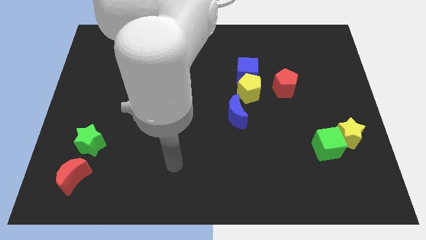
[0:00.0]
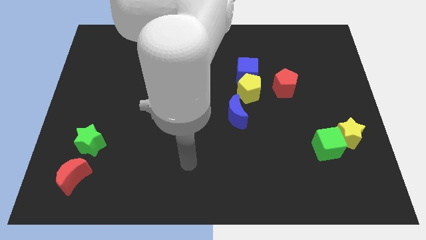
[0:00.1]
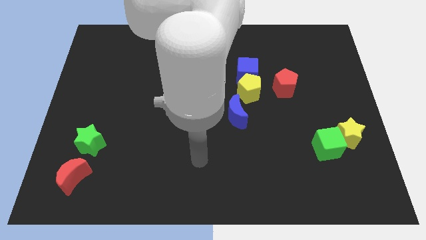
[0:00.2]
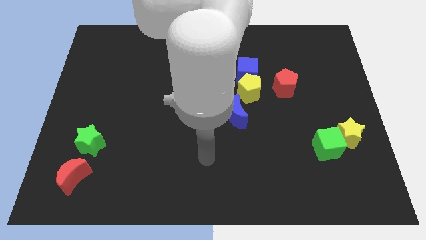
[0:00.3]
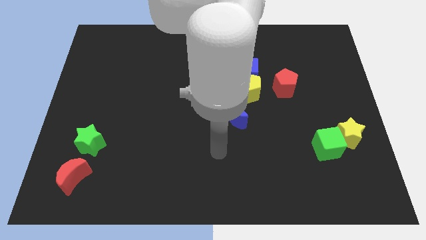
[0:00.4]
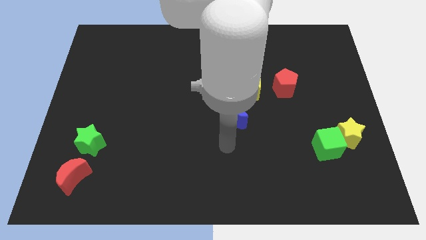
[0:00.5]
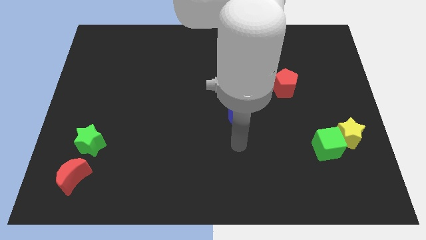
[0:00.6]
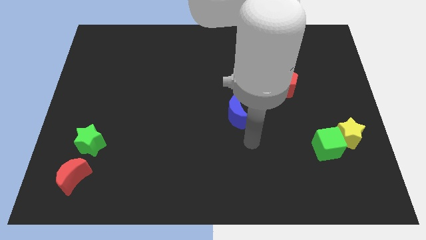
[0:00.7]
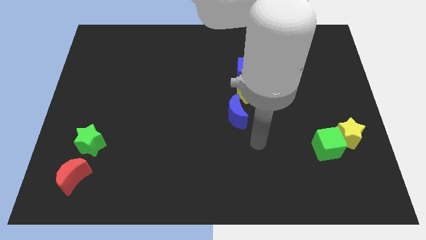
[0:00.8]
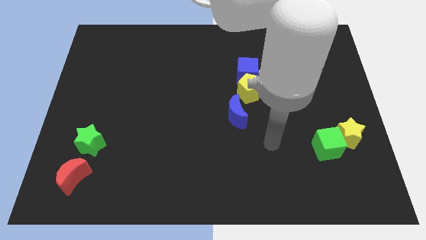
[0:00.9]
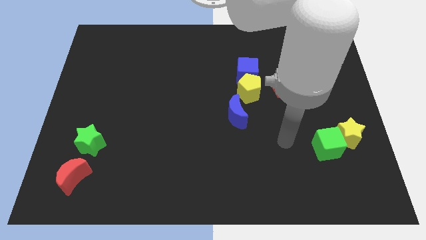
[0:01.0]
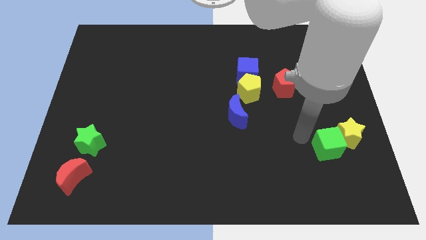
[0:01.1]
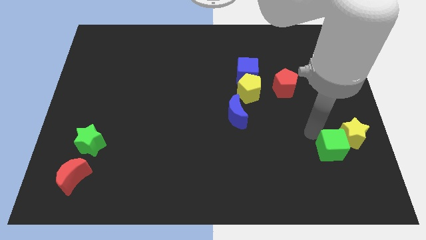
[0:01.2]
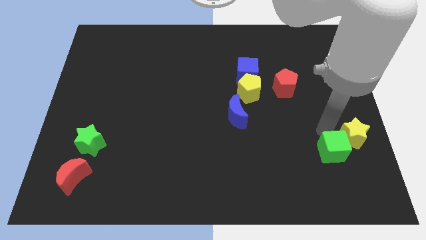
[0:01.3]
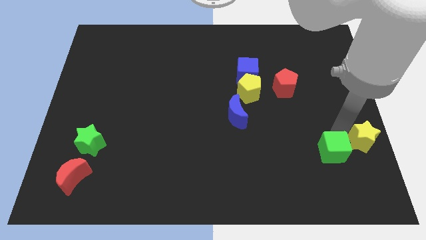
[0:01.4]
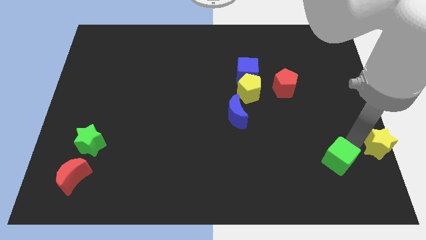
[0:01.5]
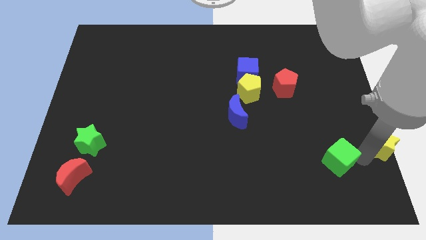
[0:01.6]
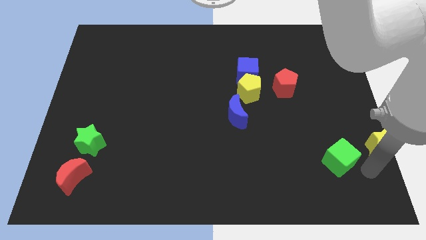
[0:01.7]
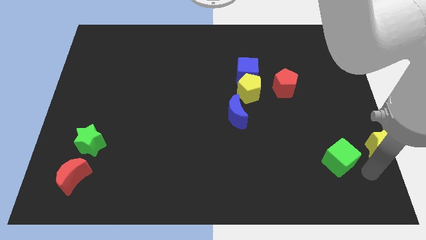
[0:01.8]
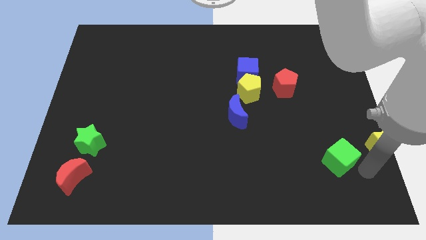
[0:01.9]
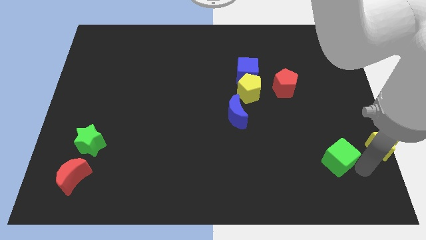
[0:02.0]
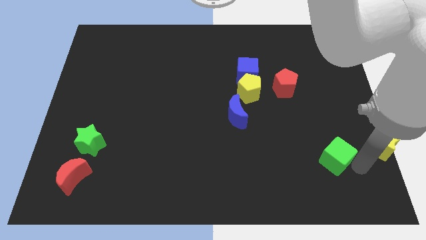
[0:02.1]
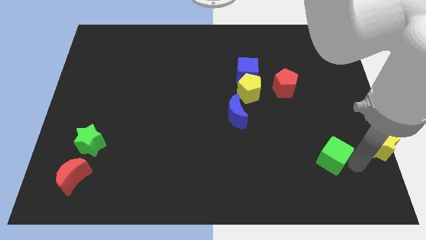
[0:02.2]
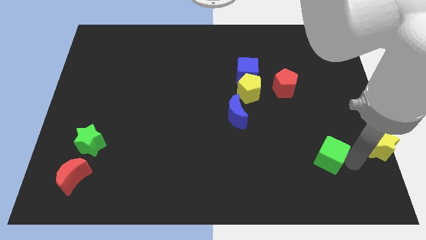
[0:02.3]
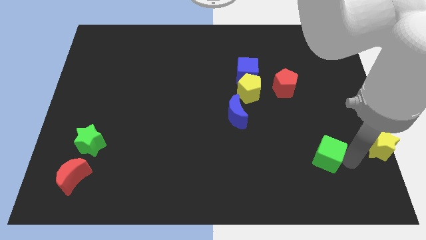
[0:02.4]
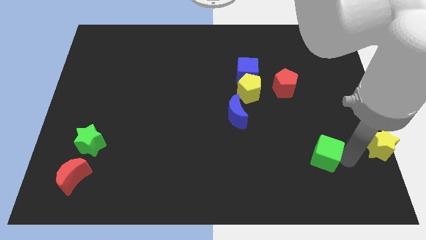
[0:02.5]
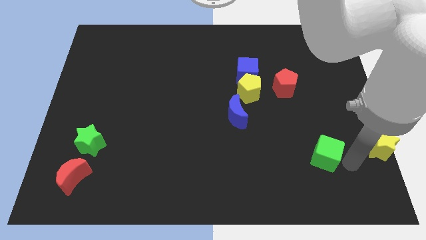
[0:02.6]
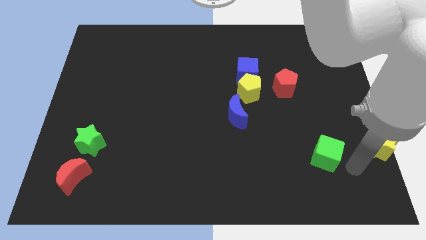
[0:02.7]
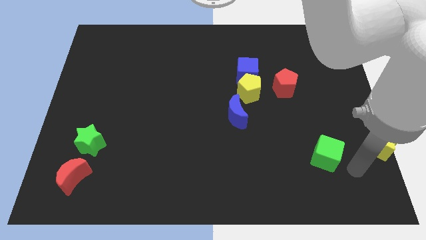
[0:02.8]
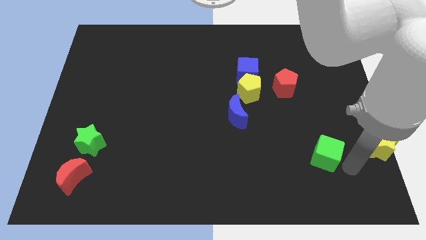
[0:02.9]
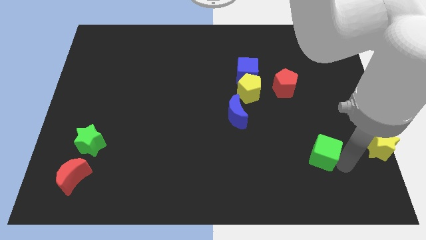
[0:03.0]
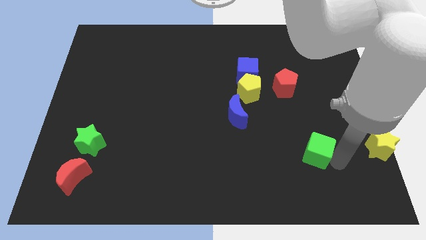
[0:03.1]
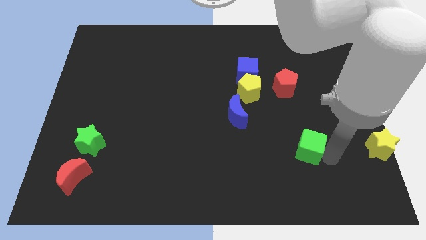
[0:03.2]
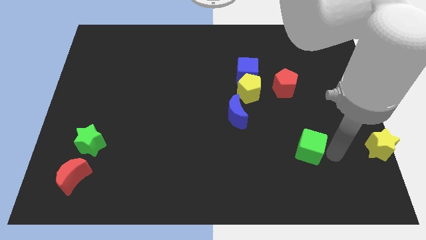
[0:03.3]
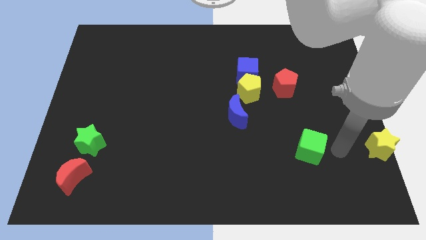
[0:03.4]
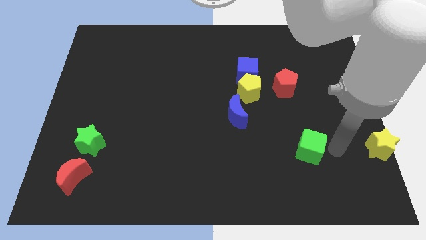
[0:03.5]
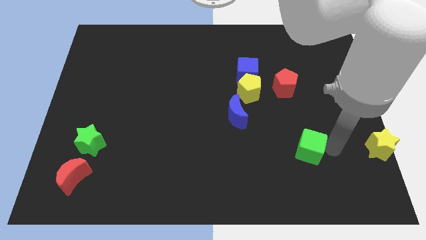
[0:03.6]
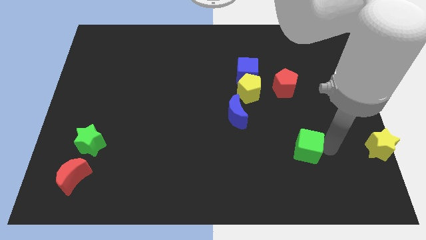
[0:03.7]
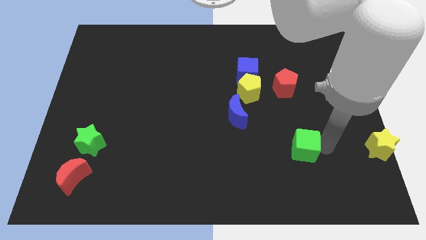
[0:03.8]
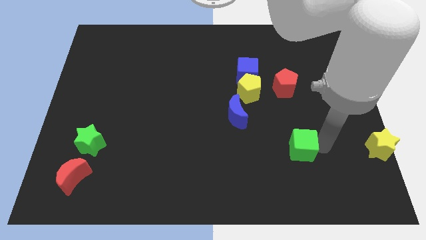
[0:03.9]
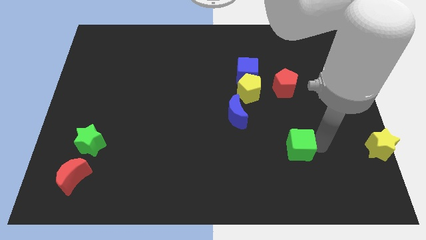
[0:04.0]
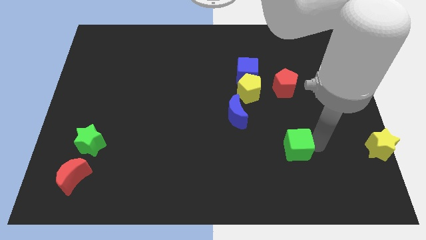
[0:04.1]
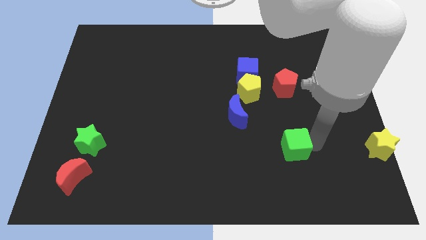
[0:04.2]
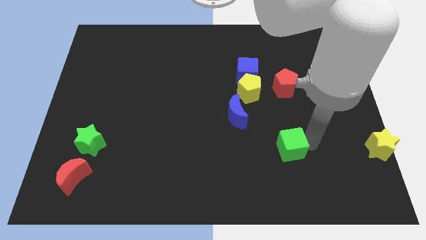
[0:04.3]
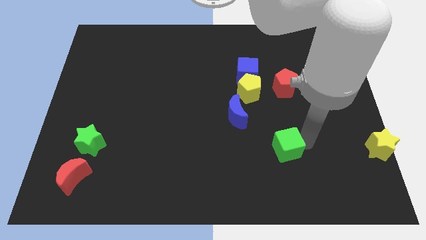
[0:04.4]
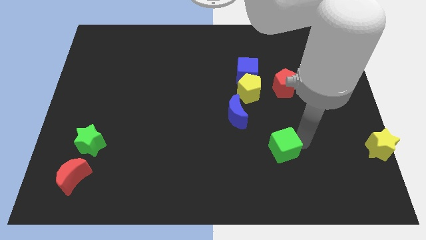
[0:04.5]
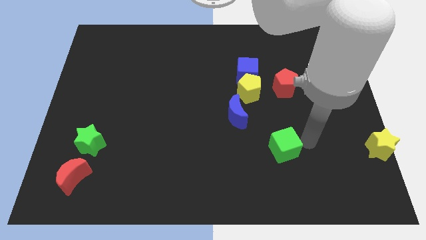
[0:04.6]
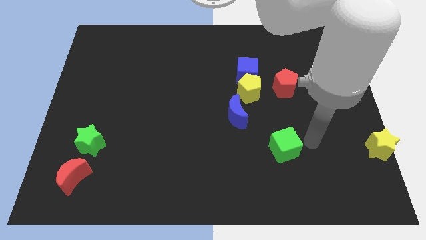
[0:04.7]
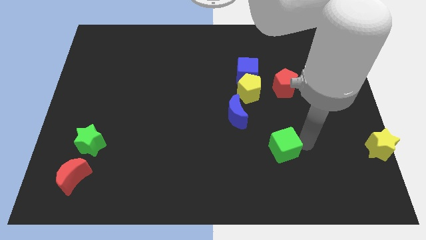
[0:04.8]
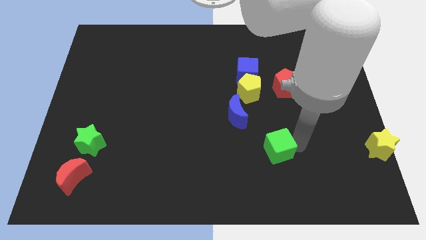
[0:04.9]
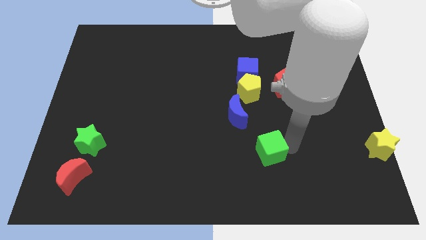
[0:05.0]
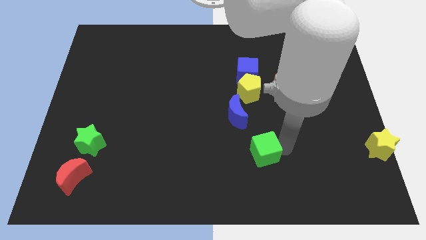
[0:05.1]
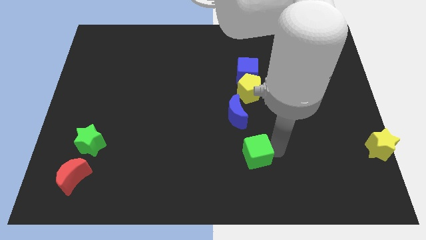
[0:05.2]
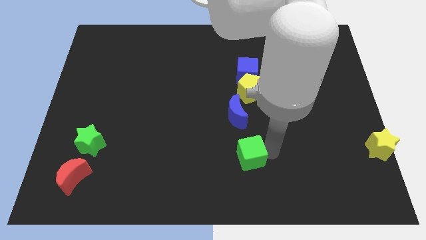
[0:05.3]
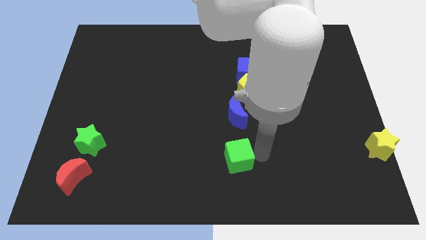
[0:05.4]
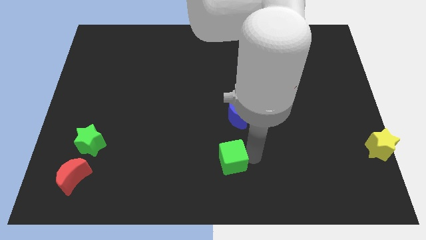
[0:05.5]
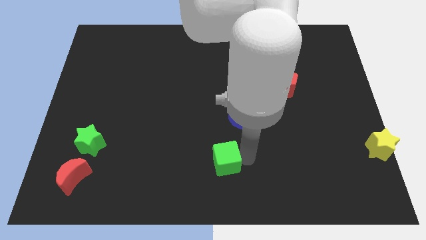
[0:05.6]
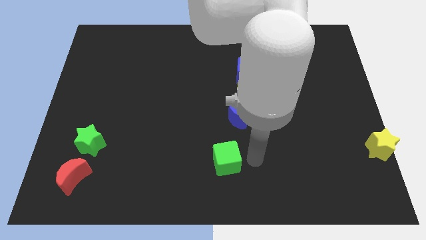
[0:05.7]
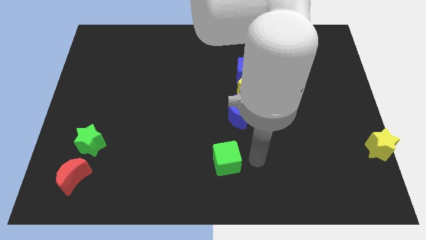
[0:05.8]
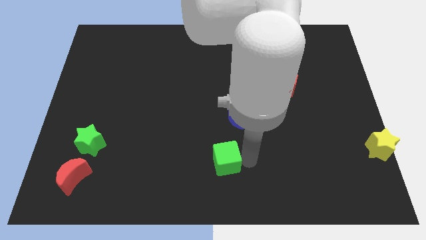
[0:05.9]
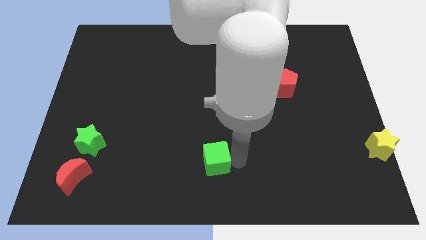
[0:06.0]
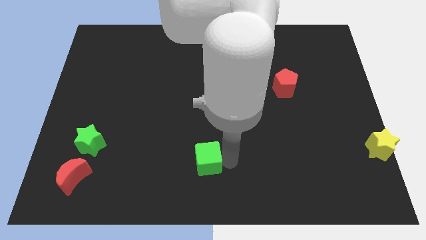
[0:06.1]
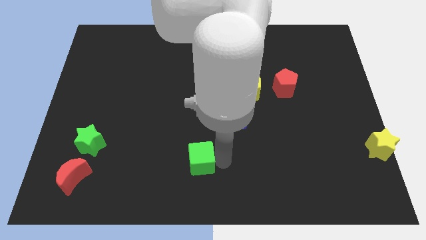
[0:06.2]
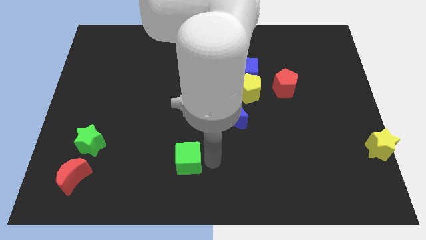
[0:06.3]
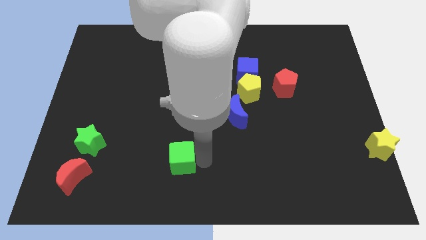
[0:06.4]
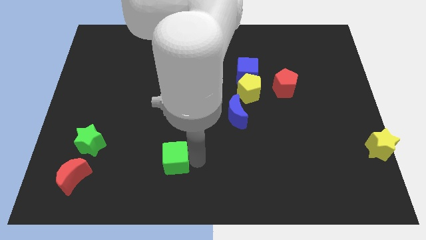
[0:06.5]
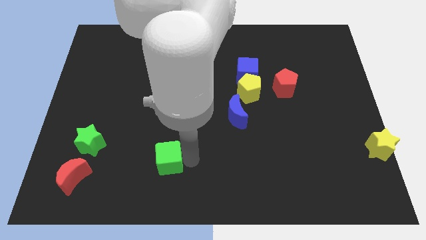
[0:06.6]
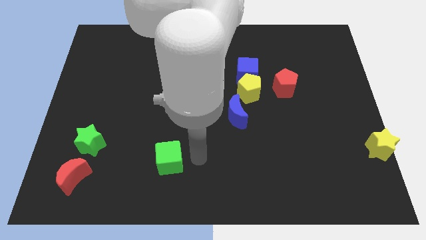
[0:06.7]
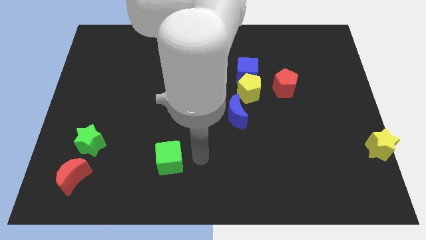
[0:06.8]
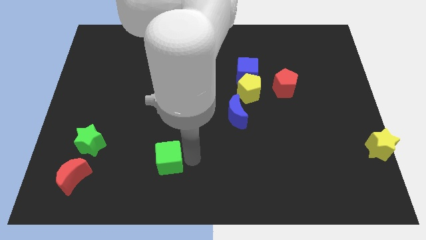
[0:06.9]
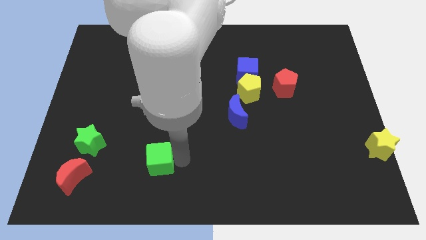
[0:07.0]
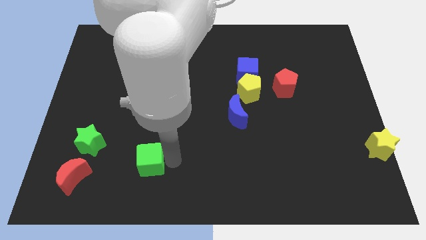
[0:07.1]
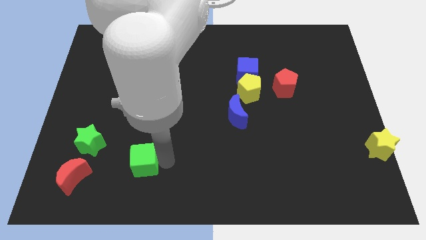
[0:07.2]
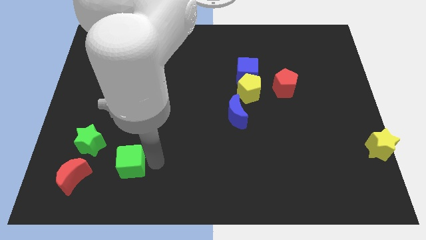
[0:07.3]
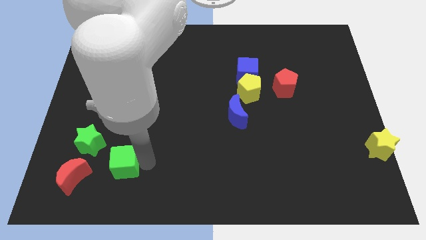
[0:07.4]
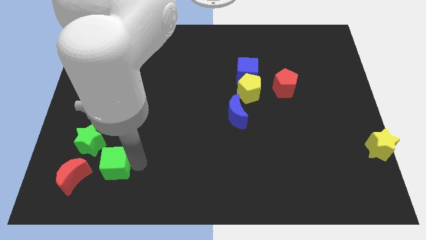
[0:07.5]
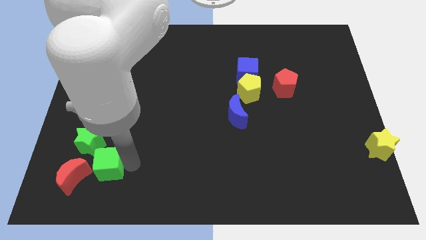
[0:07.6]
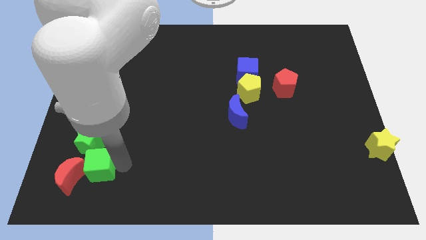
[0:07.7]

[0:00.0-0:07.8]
push the green cube to the red moon

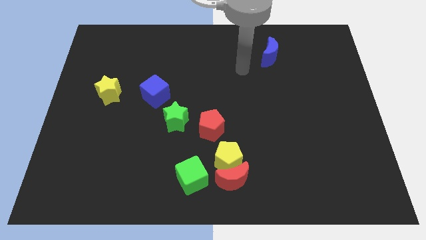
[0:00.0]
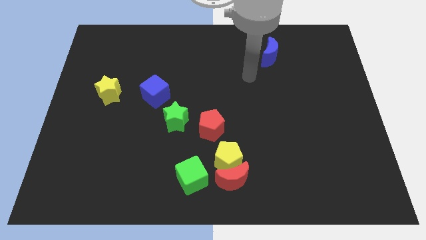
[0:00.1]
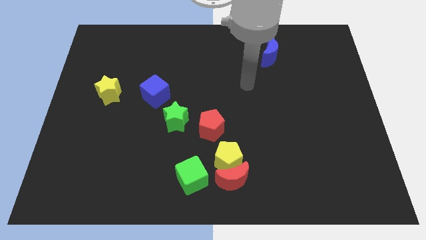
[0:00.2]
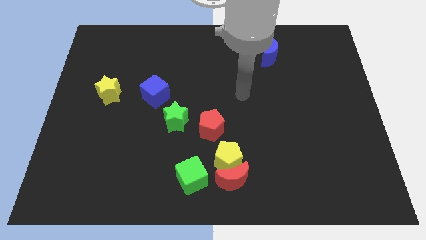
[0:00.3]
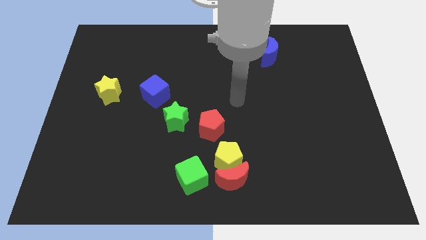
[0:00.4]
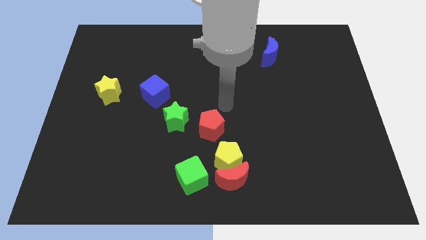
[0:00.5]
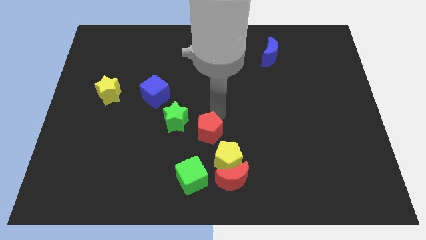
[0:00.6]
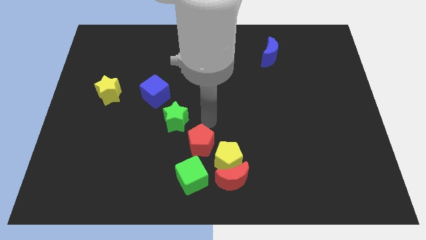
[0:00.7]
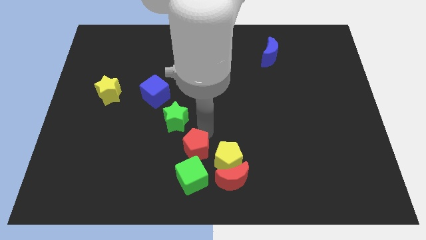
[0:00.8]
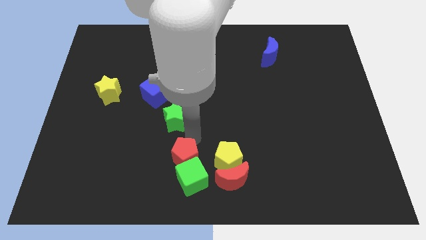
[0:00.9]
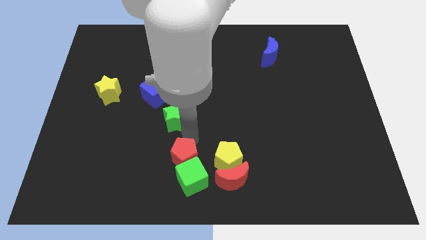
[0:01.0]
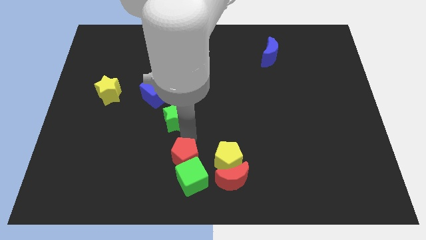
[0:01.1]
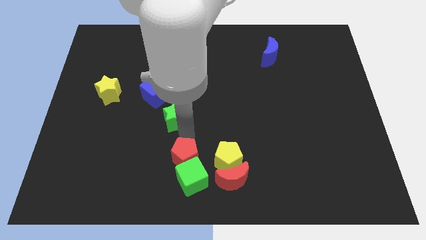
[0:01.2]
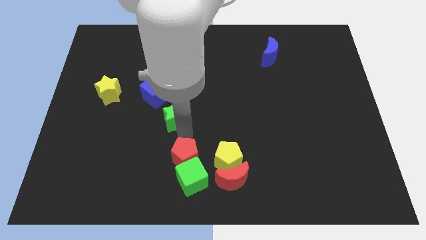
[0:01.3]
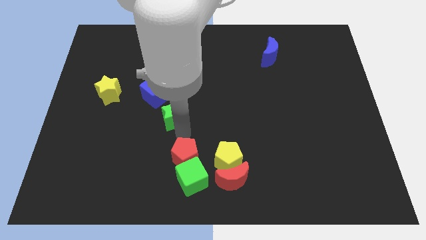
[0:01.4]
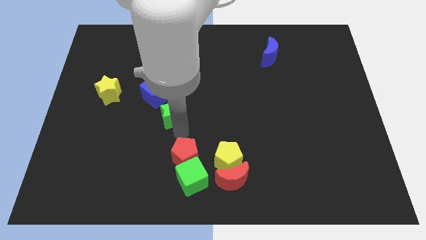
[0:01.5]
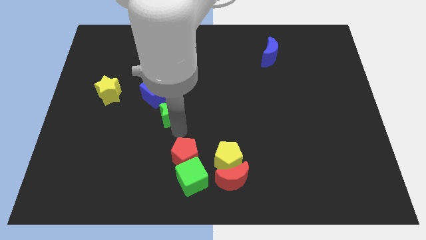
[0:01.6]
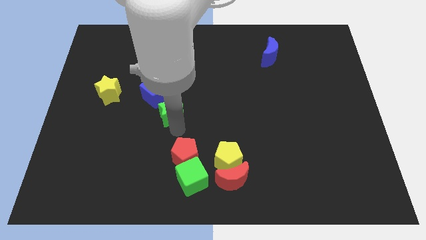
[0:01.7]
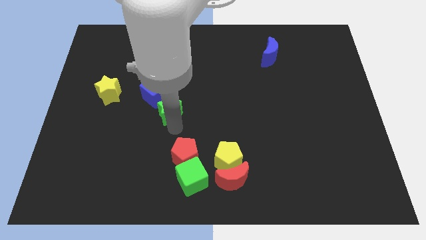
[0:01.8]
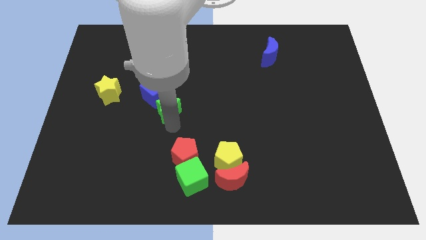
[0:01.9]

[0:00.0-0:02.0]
push the green star next to the blue cube
